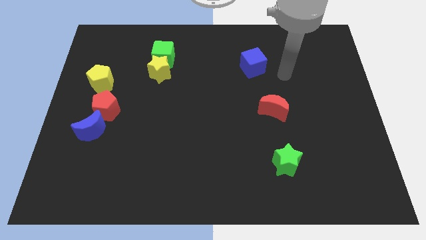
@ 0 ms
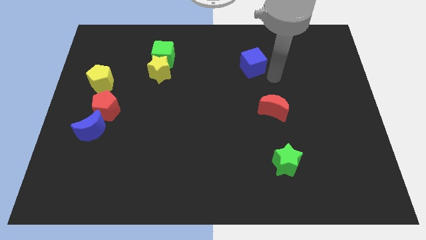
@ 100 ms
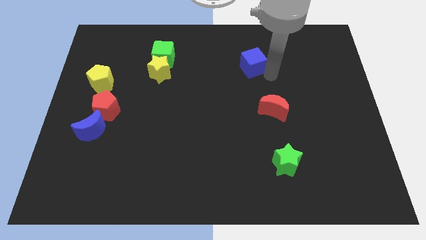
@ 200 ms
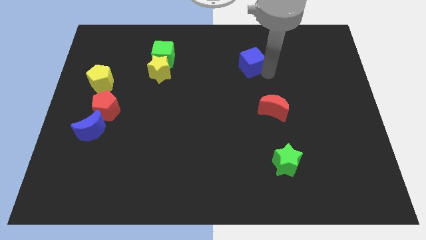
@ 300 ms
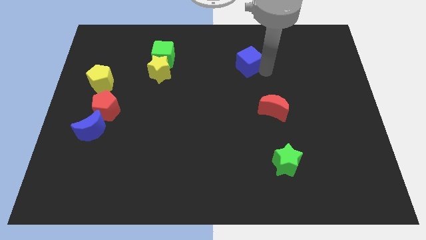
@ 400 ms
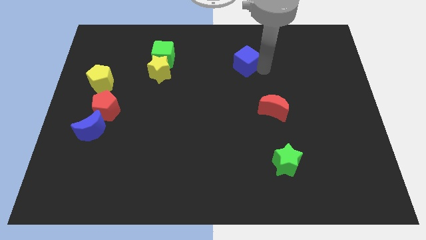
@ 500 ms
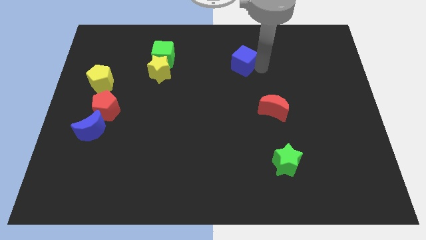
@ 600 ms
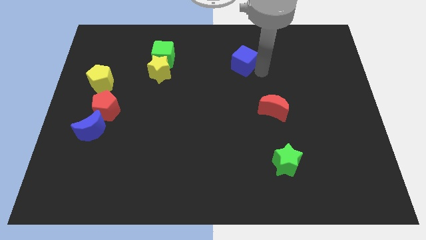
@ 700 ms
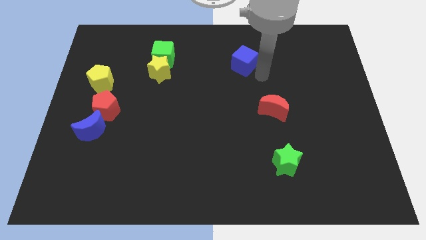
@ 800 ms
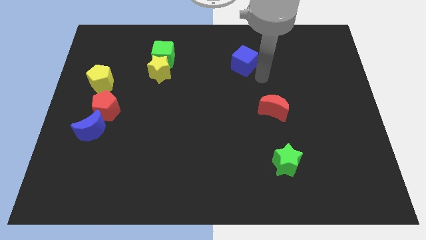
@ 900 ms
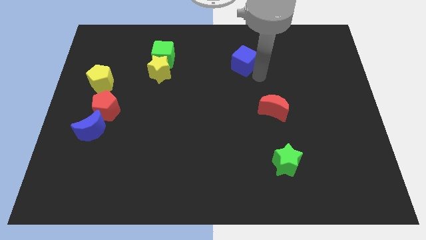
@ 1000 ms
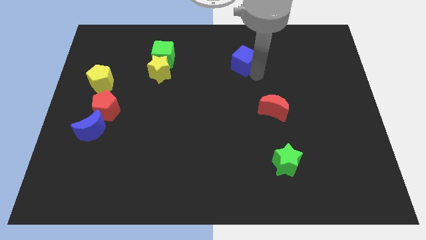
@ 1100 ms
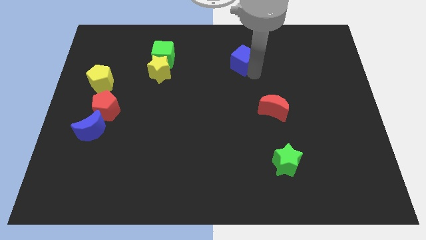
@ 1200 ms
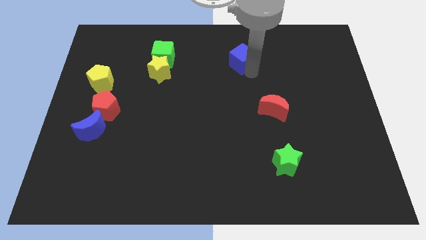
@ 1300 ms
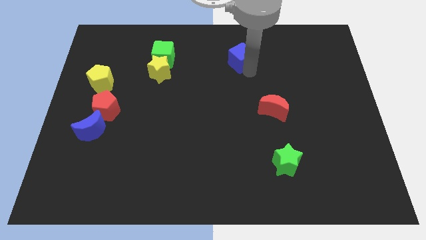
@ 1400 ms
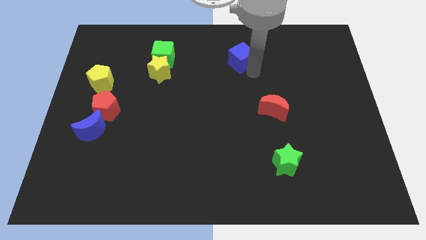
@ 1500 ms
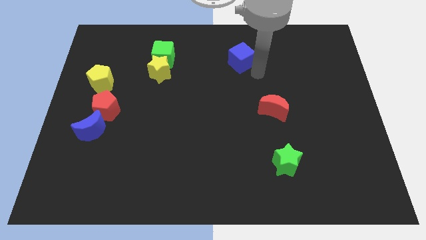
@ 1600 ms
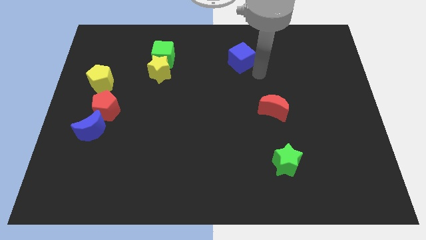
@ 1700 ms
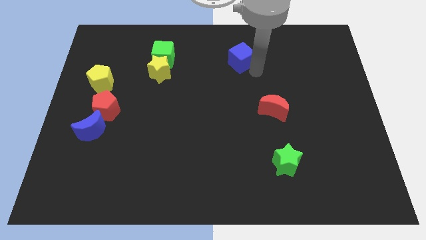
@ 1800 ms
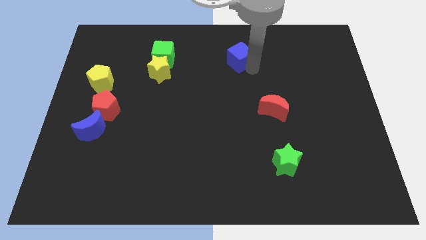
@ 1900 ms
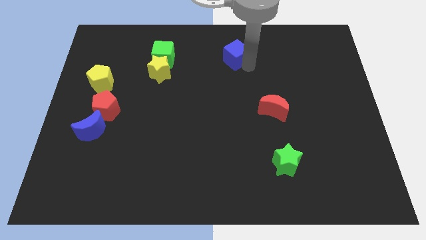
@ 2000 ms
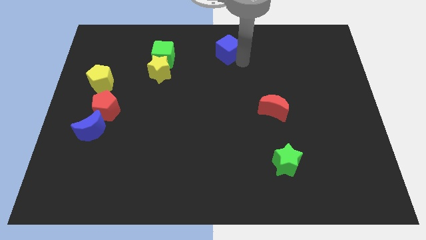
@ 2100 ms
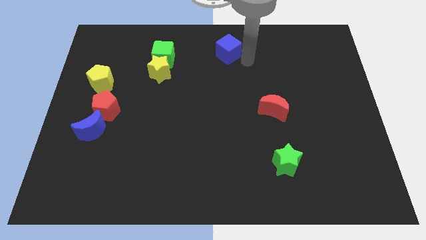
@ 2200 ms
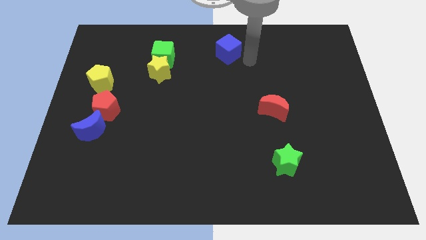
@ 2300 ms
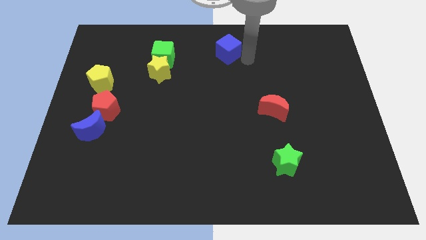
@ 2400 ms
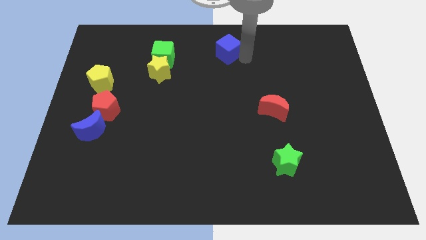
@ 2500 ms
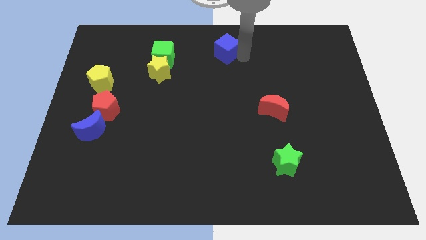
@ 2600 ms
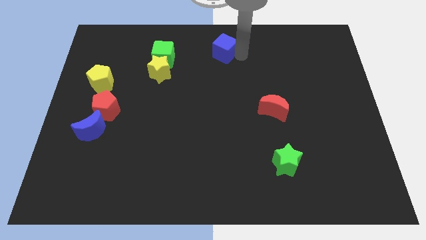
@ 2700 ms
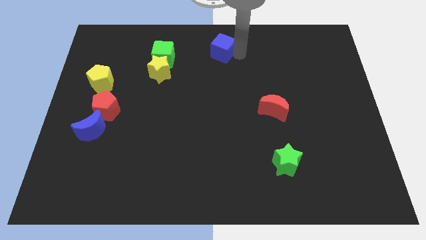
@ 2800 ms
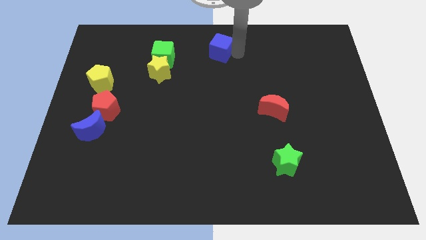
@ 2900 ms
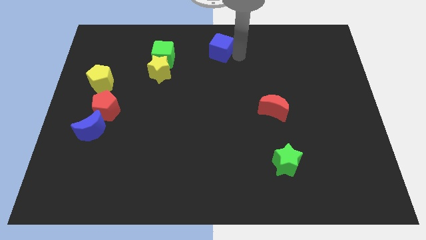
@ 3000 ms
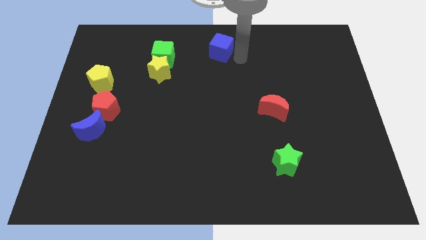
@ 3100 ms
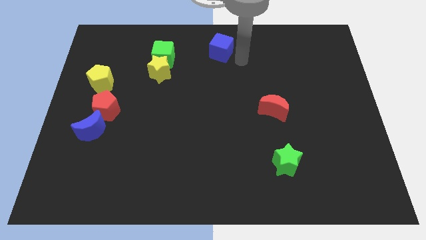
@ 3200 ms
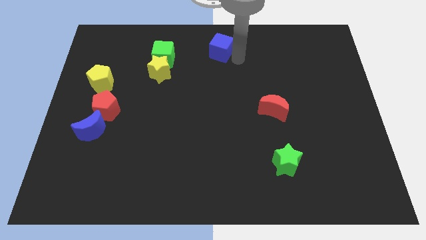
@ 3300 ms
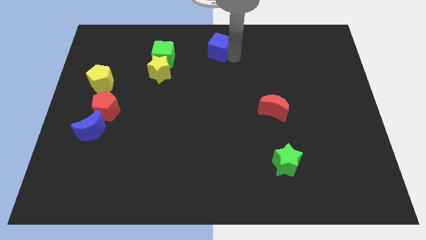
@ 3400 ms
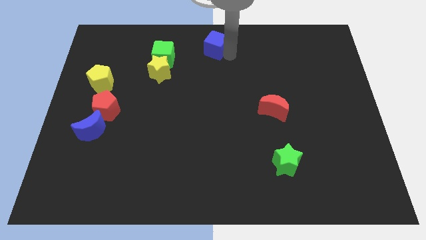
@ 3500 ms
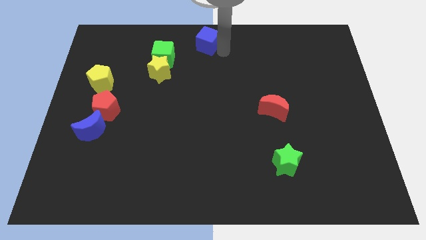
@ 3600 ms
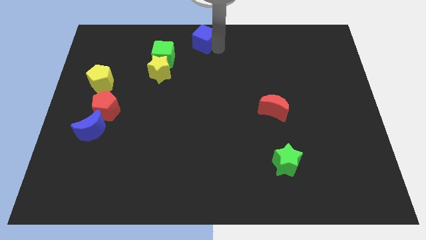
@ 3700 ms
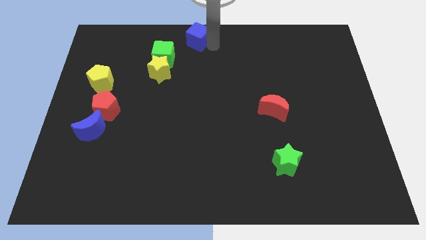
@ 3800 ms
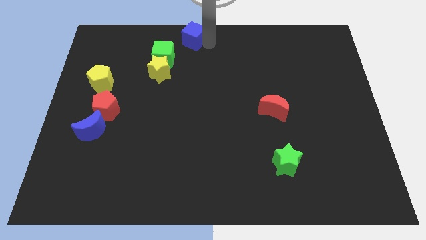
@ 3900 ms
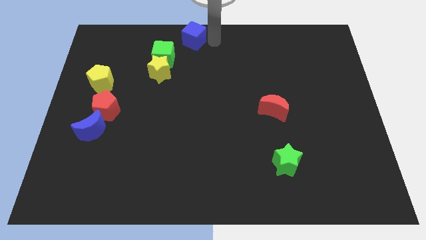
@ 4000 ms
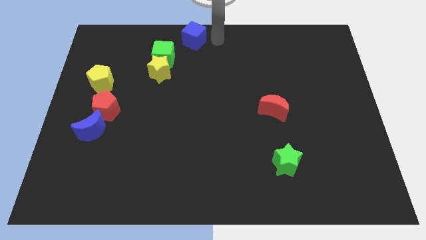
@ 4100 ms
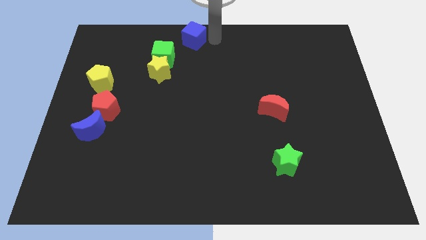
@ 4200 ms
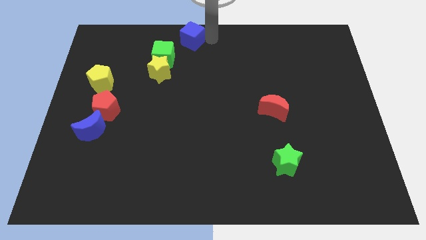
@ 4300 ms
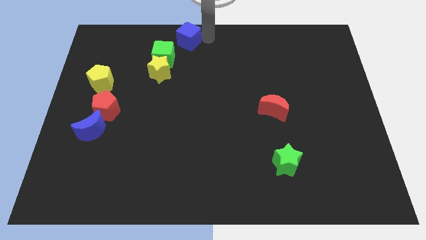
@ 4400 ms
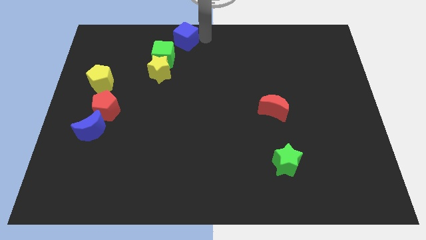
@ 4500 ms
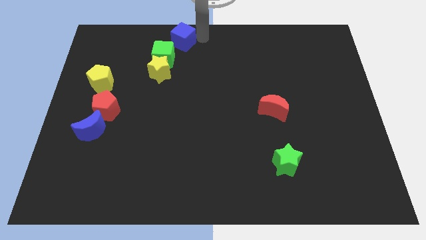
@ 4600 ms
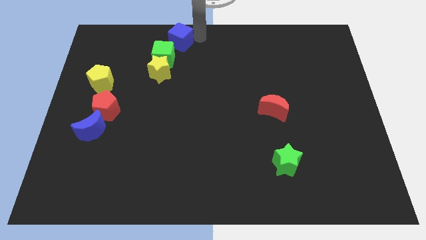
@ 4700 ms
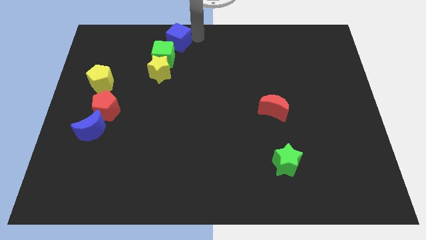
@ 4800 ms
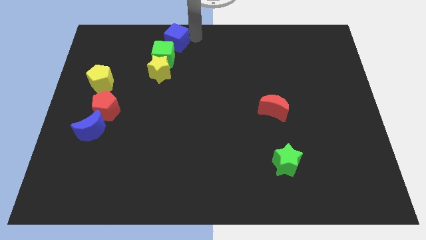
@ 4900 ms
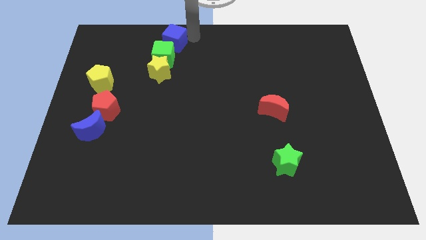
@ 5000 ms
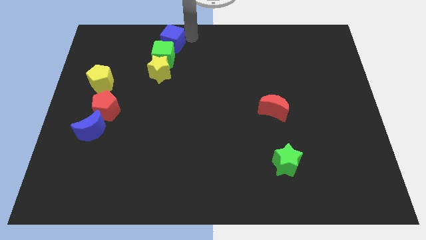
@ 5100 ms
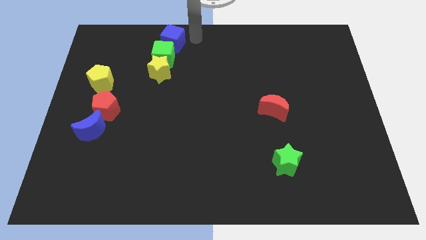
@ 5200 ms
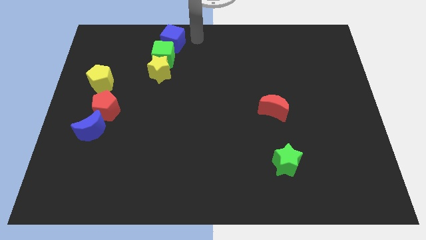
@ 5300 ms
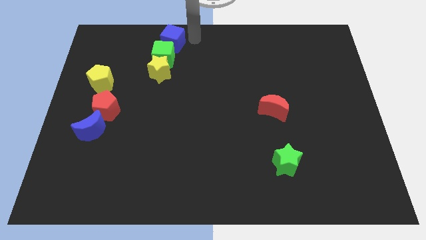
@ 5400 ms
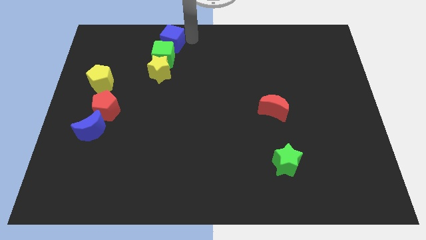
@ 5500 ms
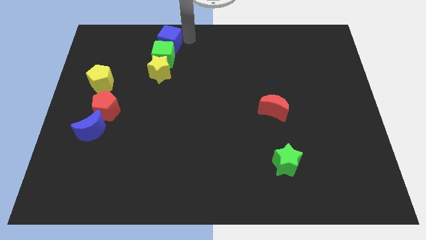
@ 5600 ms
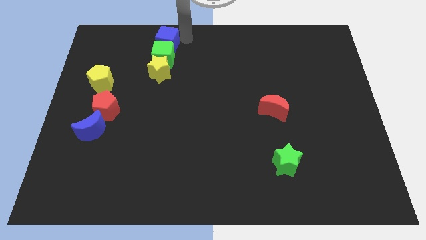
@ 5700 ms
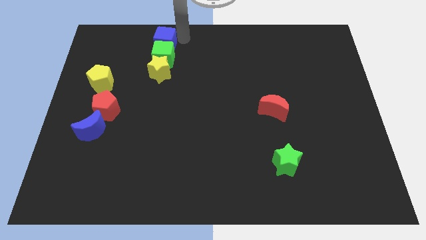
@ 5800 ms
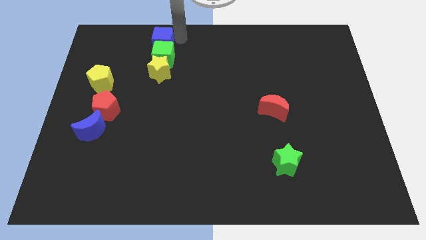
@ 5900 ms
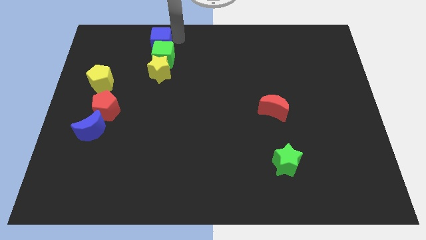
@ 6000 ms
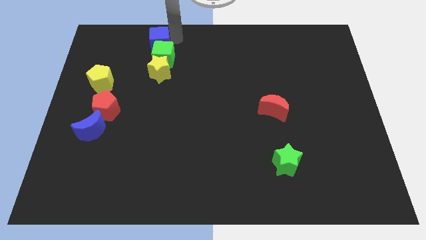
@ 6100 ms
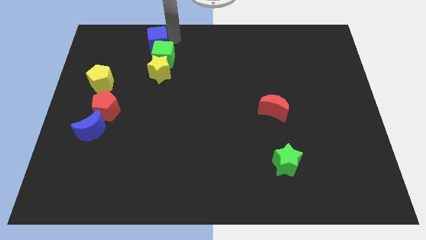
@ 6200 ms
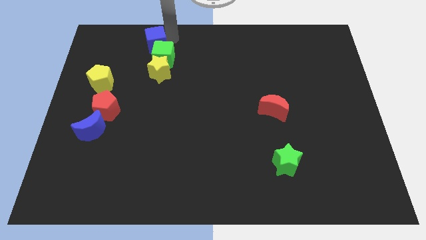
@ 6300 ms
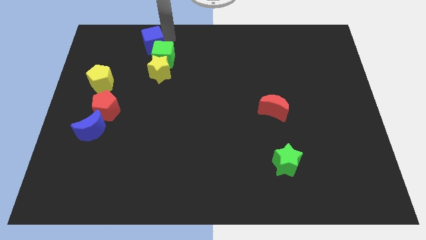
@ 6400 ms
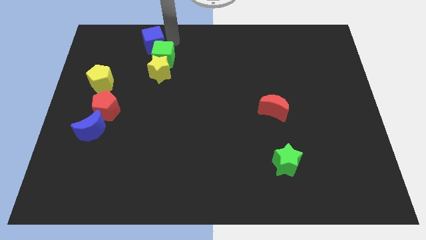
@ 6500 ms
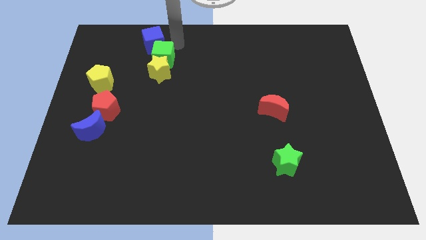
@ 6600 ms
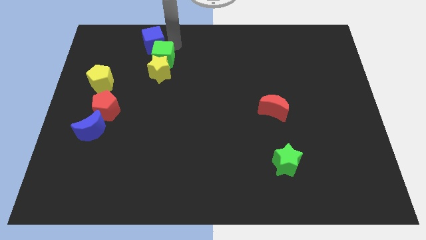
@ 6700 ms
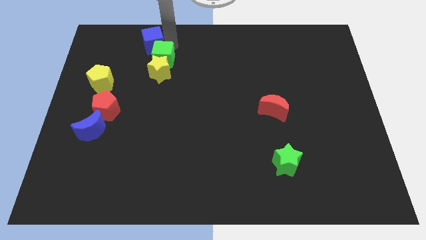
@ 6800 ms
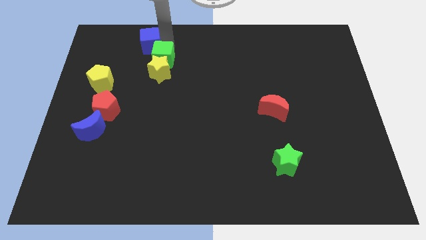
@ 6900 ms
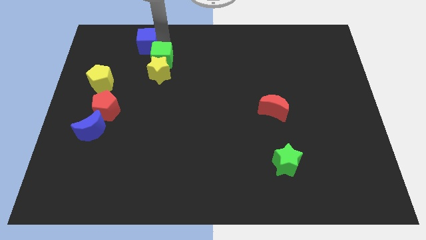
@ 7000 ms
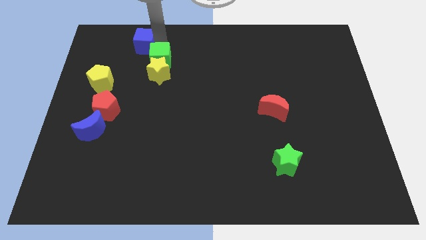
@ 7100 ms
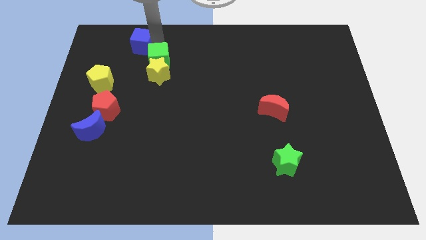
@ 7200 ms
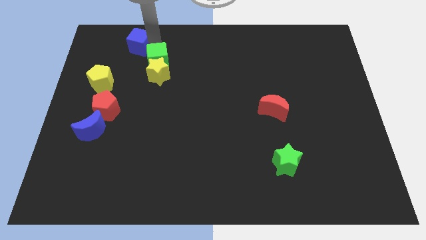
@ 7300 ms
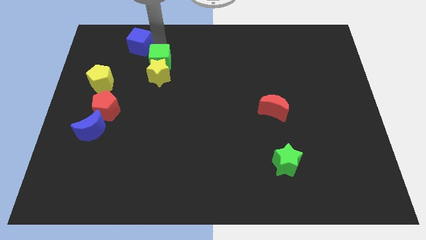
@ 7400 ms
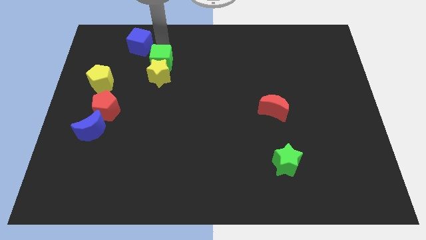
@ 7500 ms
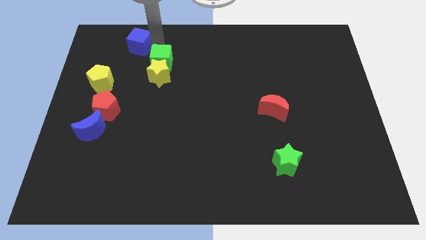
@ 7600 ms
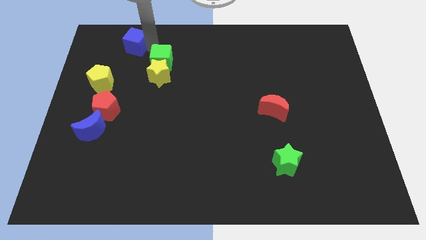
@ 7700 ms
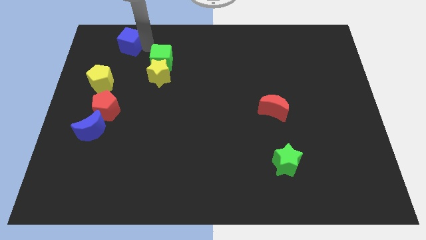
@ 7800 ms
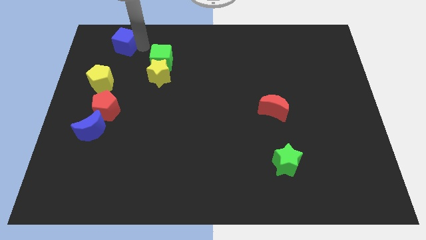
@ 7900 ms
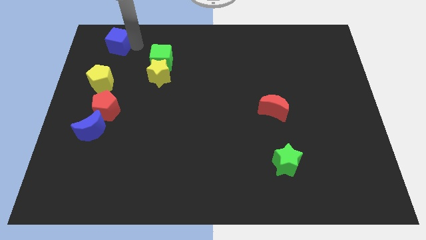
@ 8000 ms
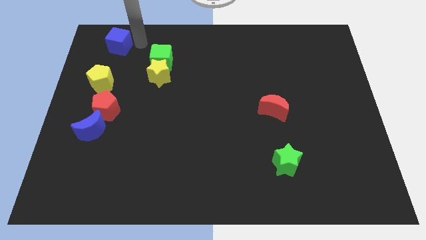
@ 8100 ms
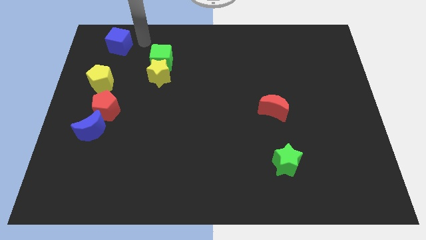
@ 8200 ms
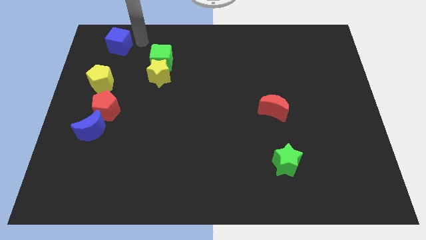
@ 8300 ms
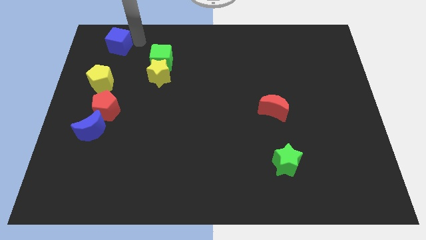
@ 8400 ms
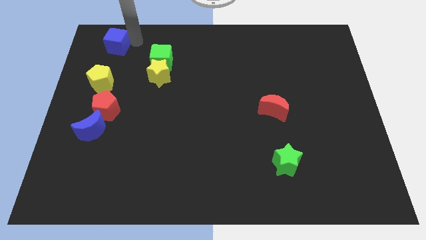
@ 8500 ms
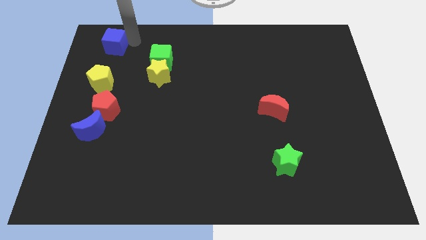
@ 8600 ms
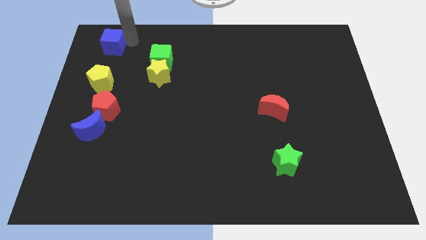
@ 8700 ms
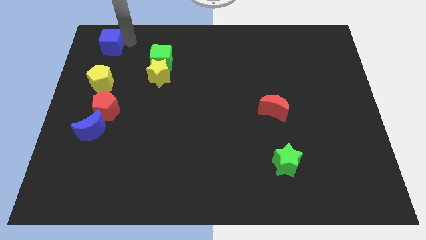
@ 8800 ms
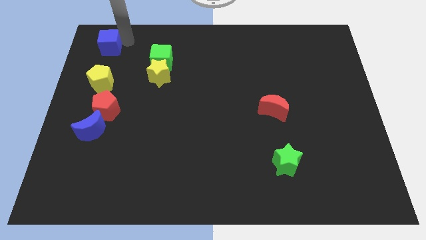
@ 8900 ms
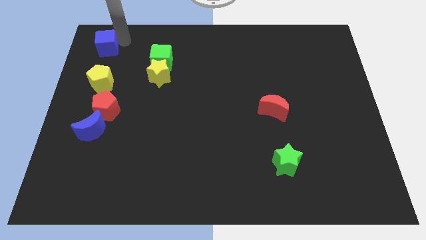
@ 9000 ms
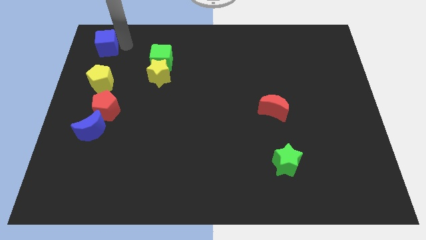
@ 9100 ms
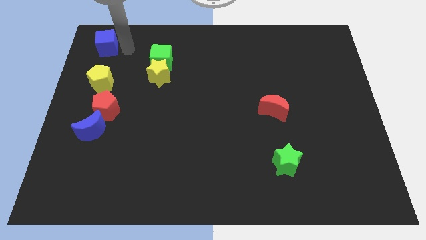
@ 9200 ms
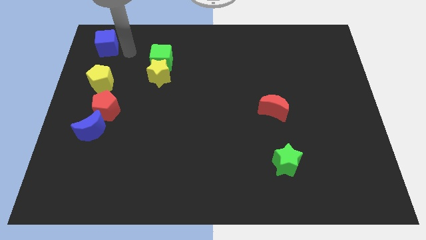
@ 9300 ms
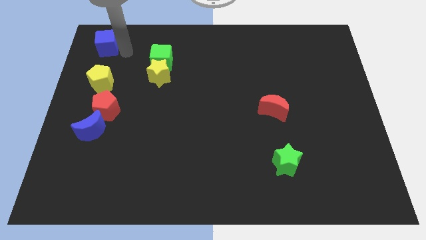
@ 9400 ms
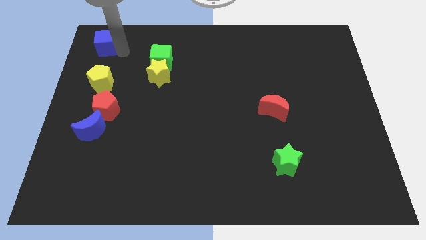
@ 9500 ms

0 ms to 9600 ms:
move the blue cube to the top left corner
